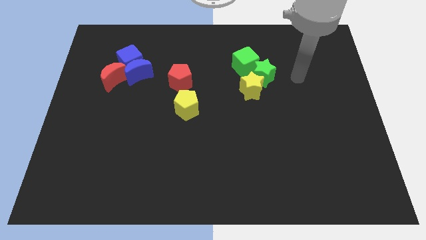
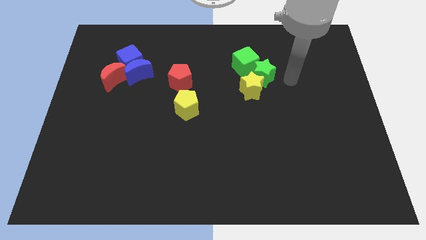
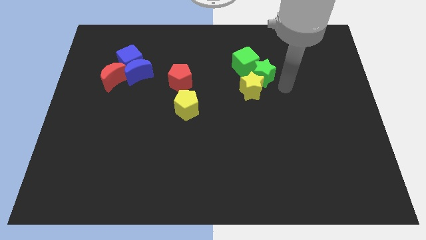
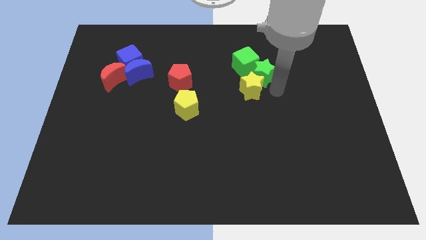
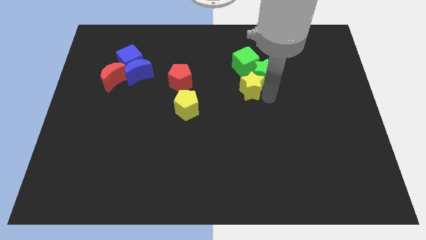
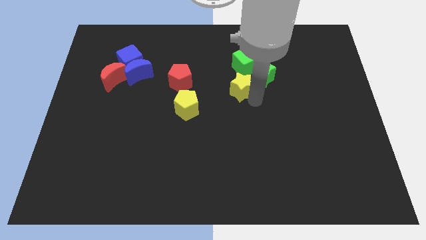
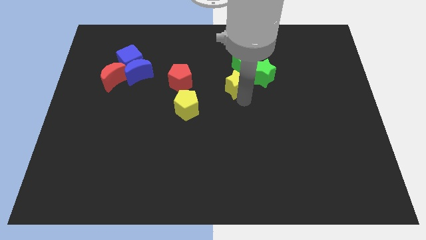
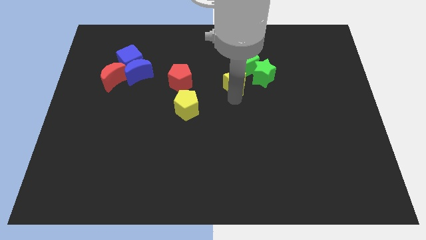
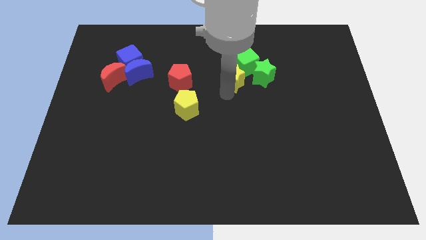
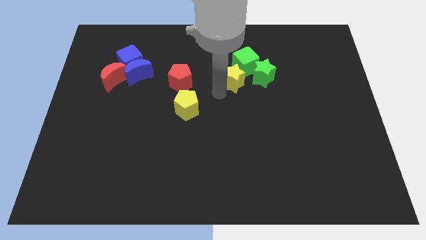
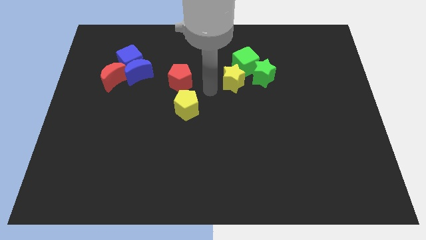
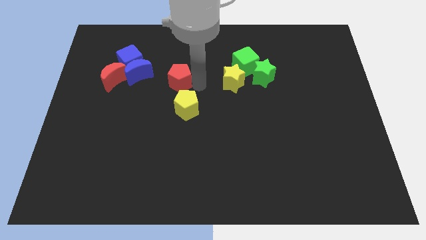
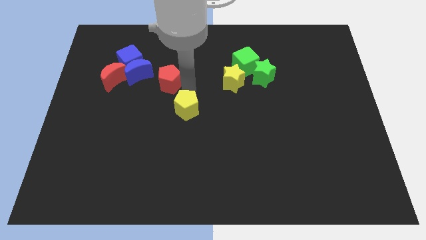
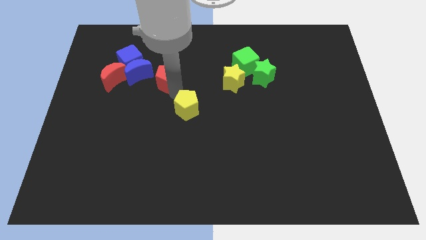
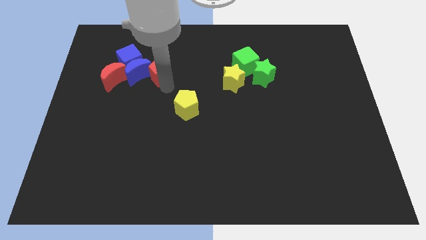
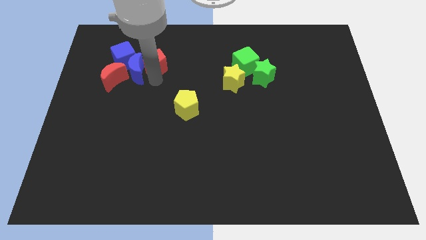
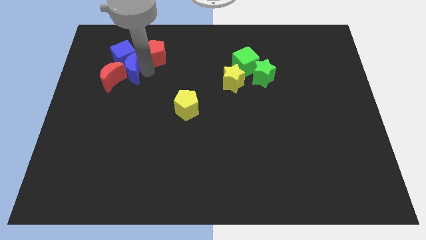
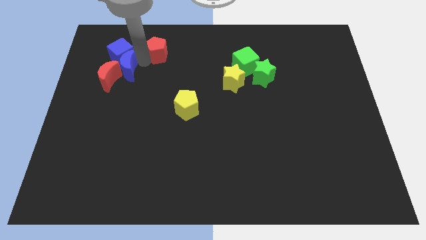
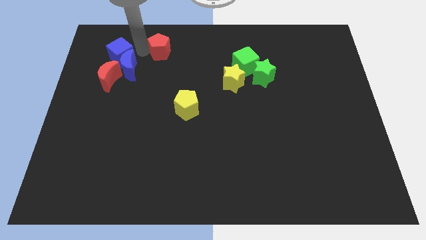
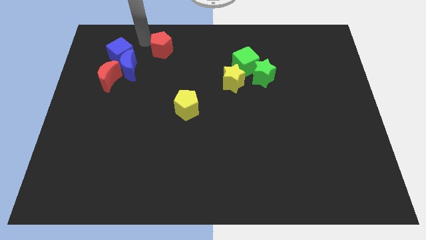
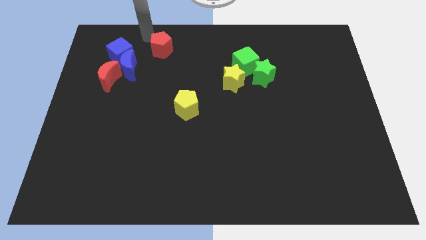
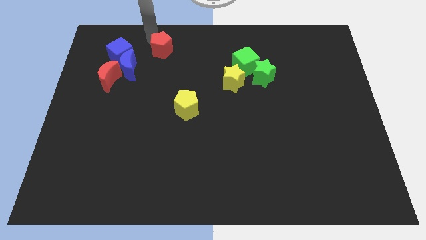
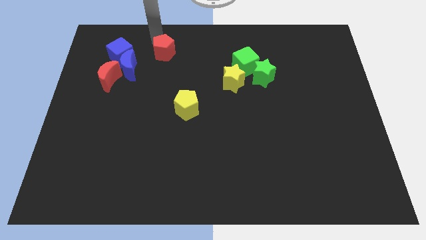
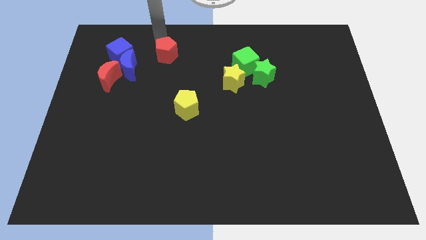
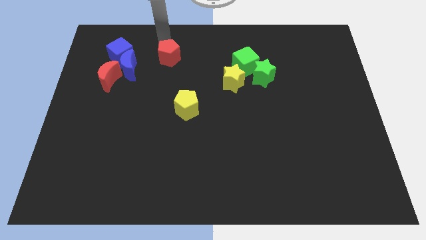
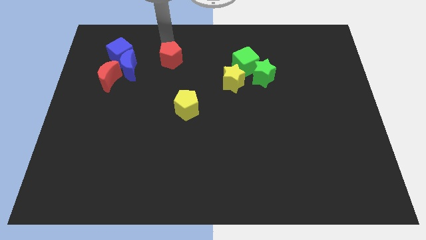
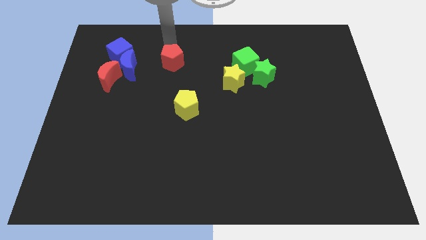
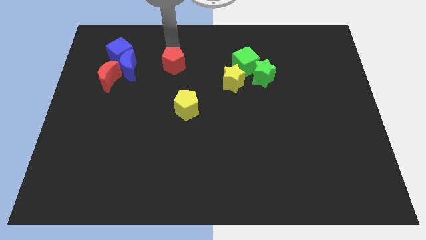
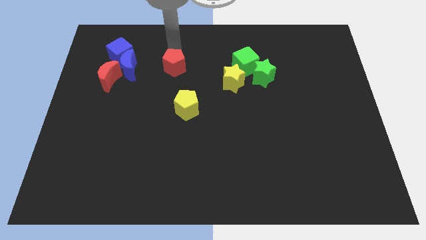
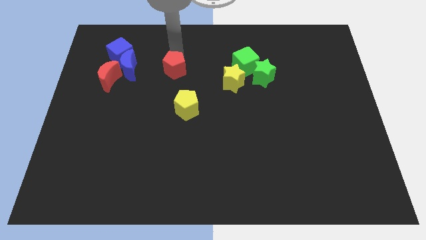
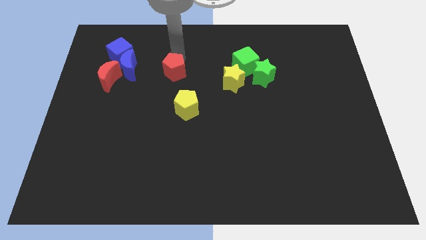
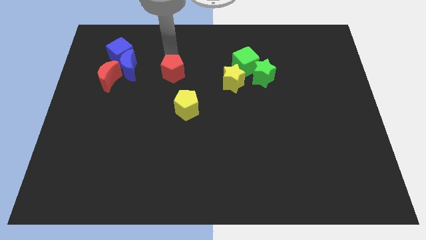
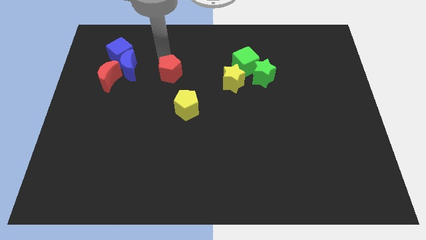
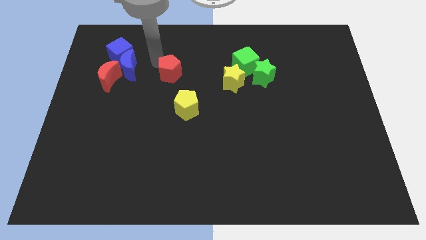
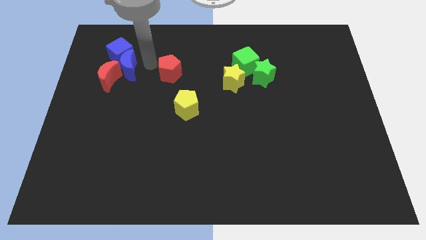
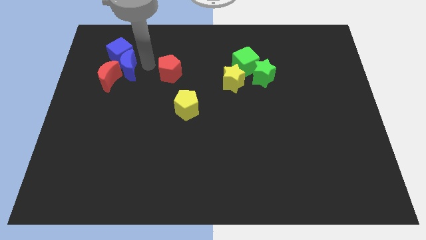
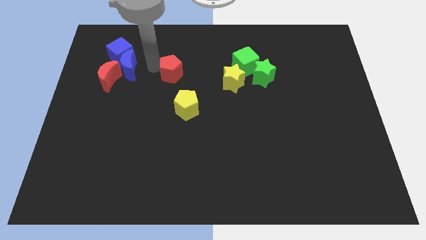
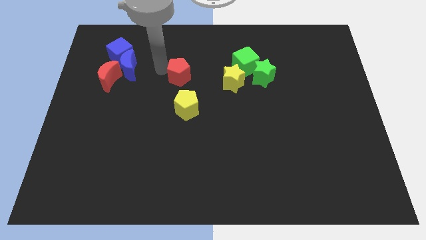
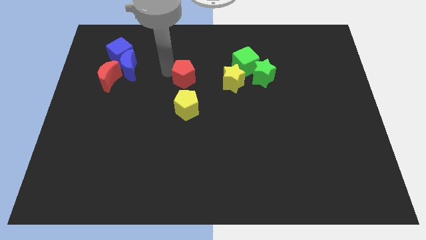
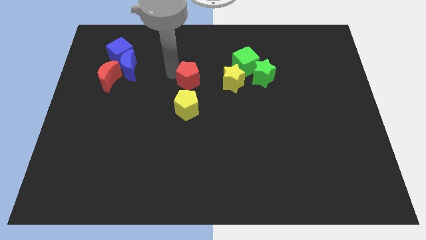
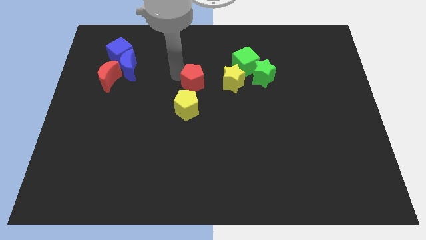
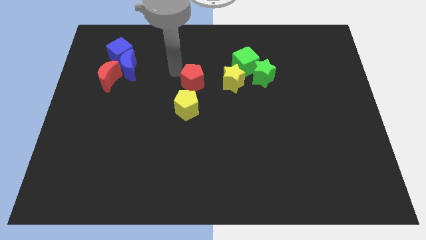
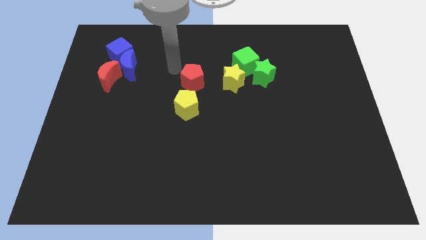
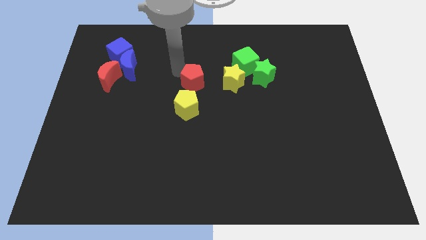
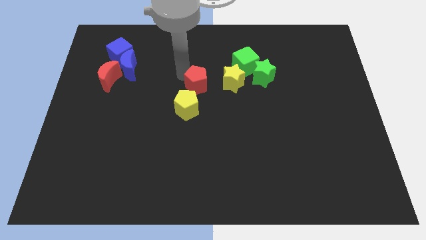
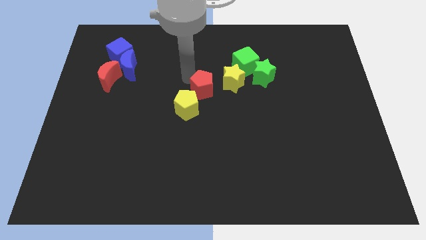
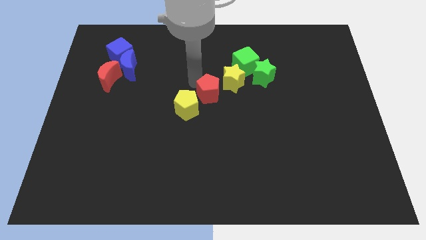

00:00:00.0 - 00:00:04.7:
slightly push the red pentagon downwards and then right

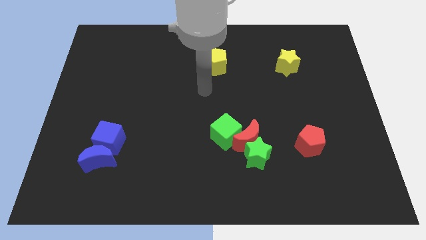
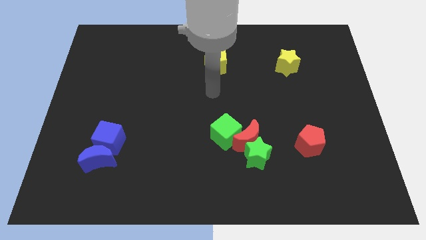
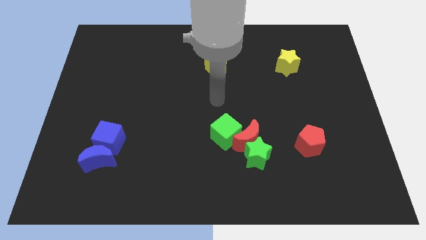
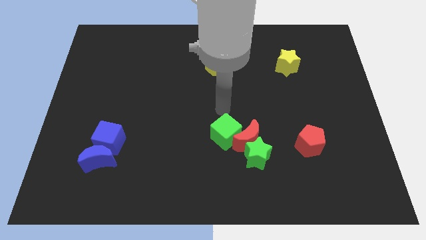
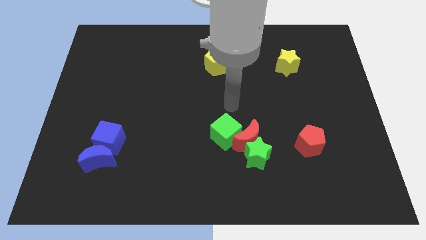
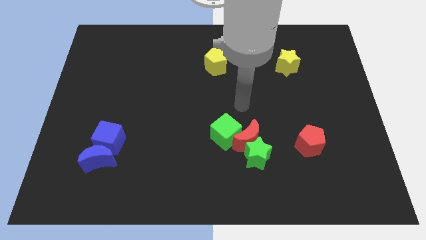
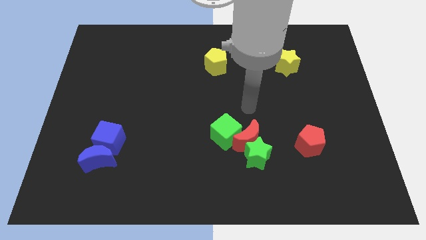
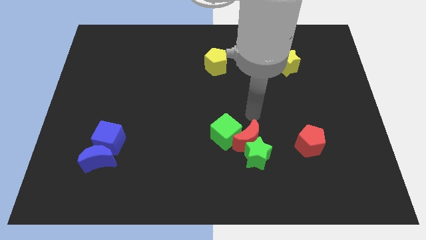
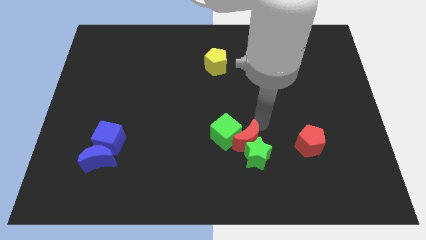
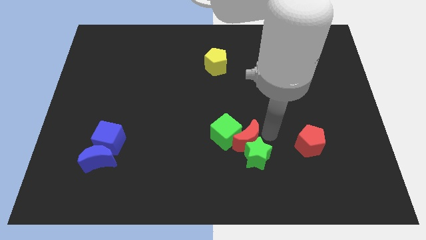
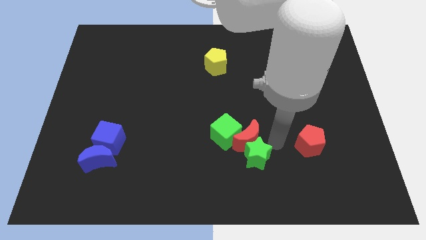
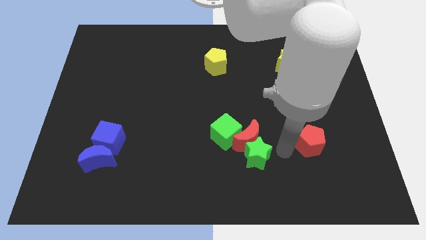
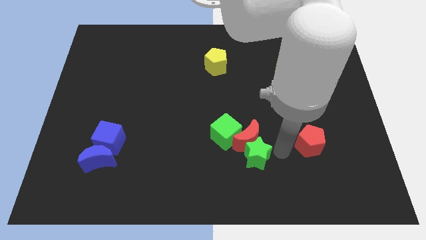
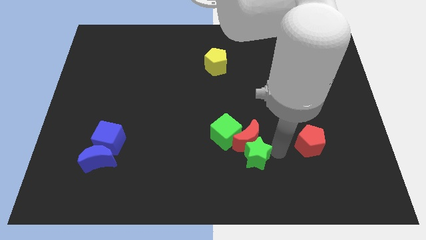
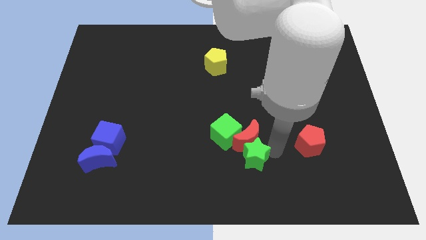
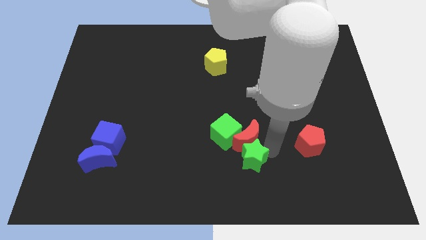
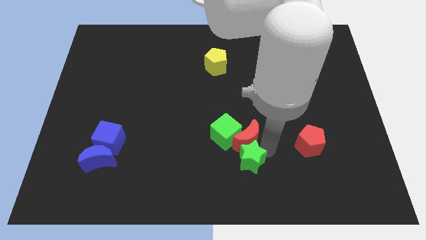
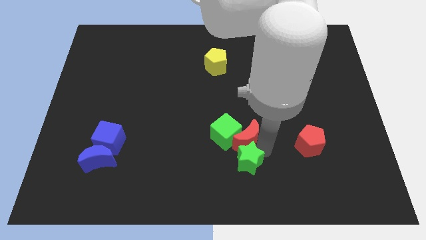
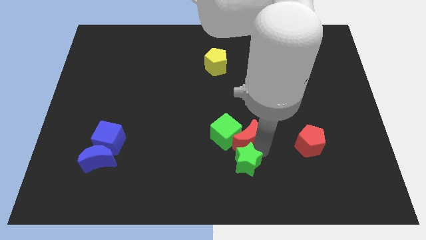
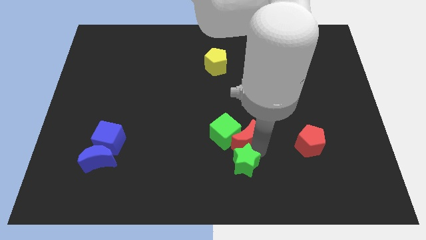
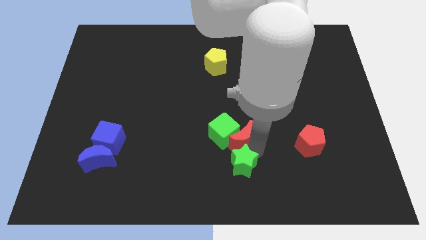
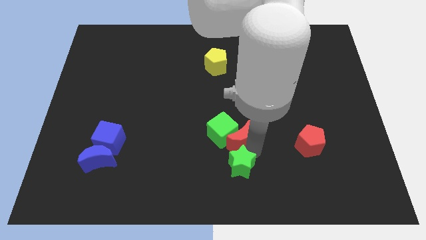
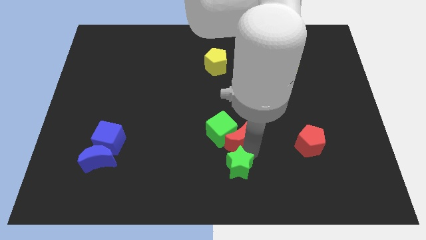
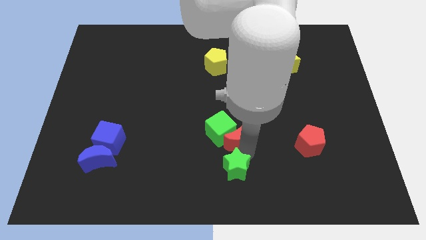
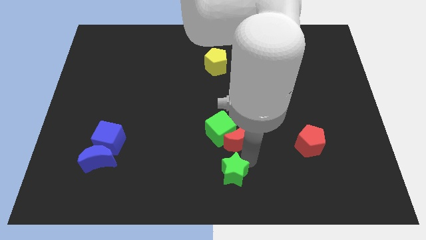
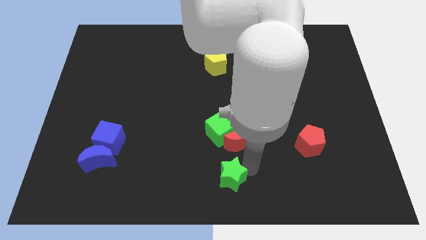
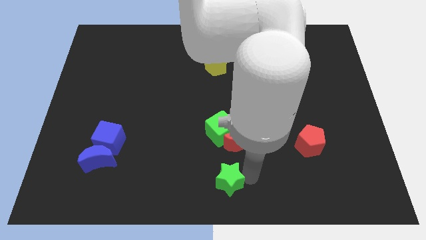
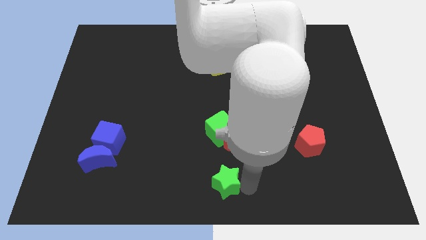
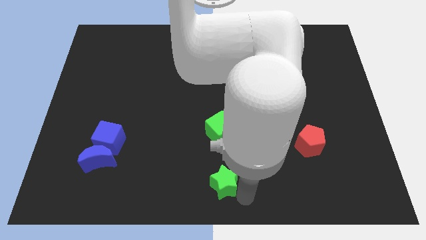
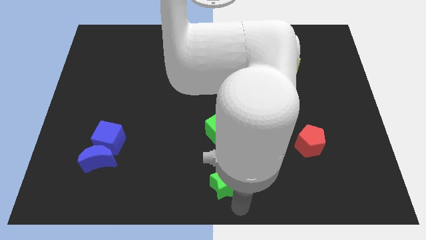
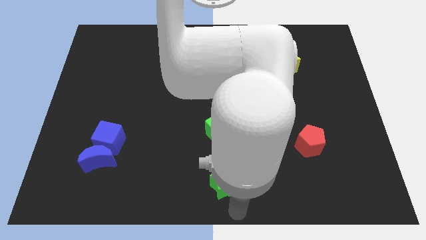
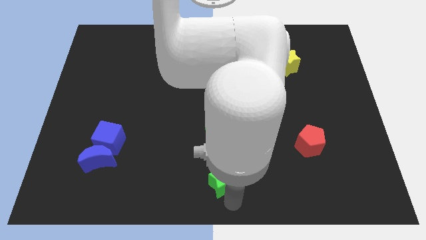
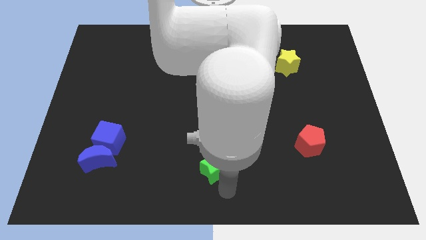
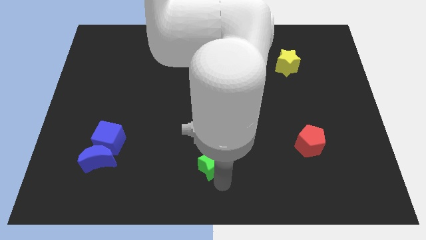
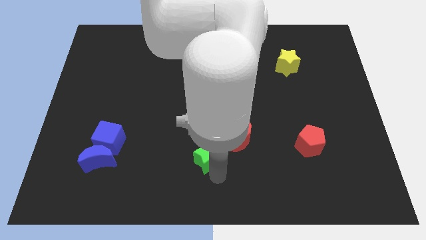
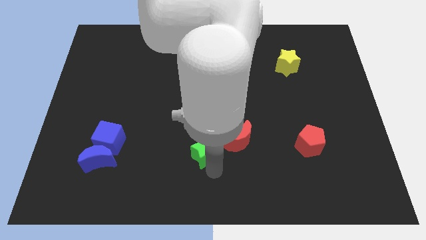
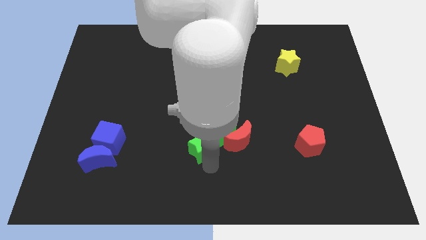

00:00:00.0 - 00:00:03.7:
push the green star a little bit up and left
